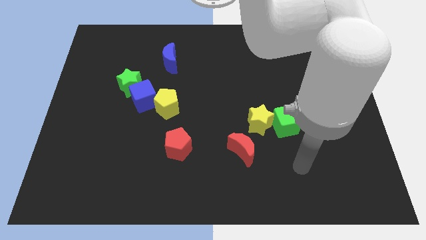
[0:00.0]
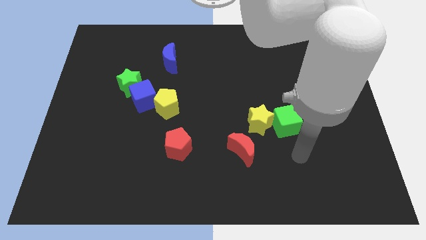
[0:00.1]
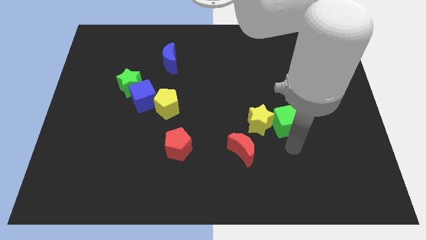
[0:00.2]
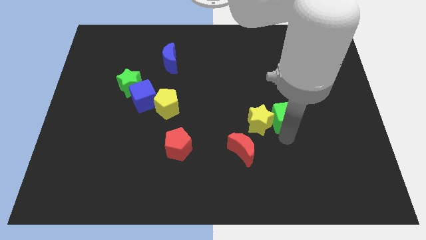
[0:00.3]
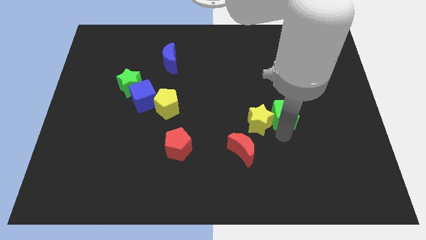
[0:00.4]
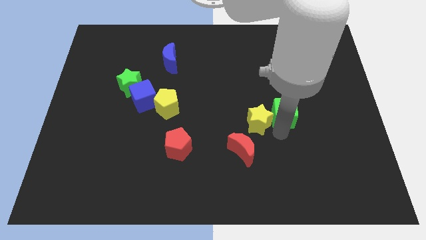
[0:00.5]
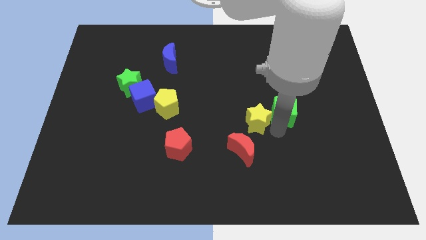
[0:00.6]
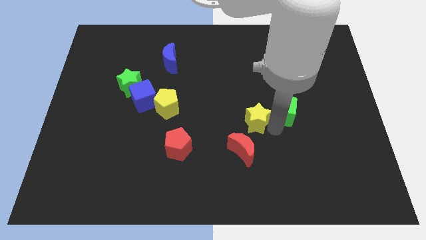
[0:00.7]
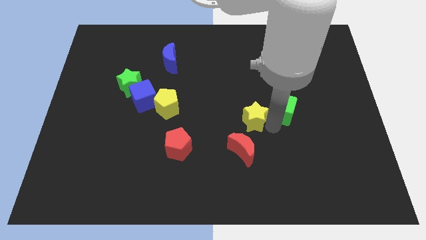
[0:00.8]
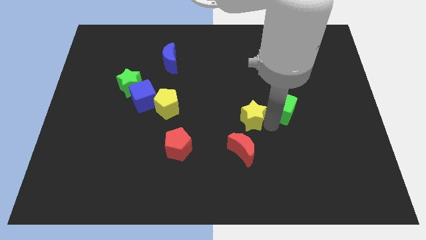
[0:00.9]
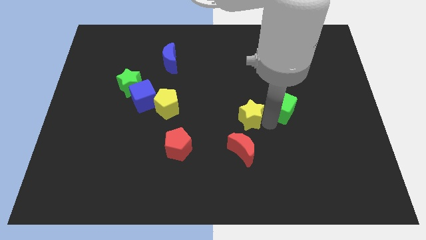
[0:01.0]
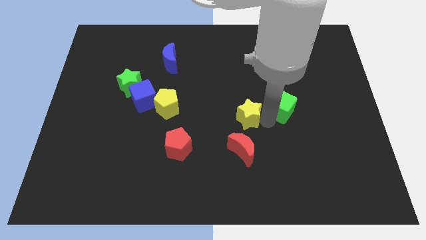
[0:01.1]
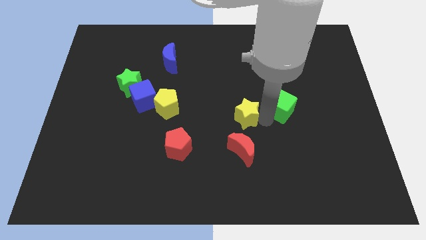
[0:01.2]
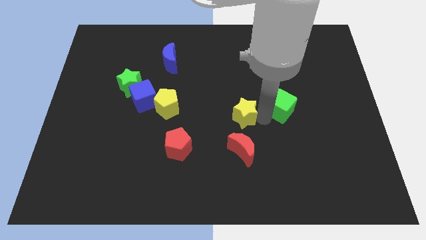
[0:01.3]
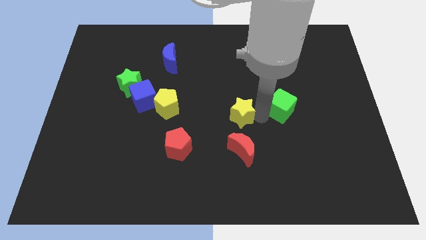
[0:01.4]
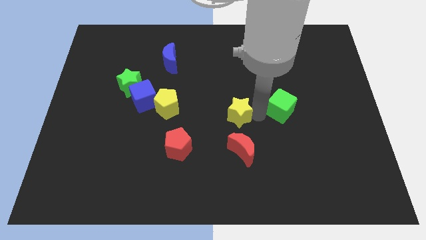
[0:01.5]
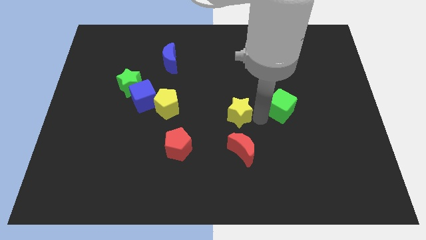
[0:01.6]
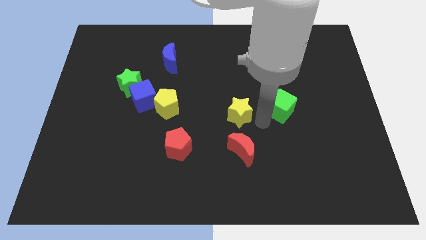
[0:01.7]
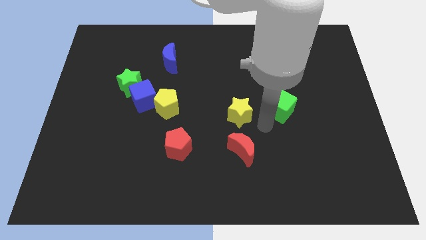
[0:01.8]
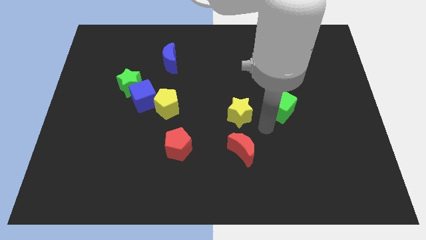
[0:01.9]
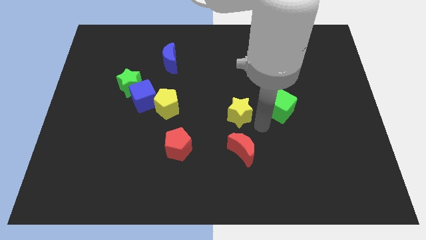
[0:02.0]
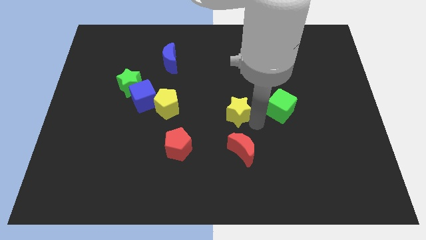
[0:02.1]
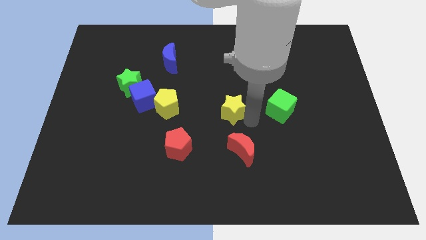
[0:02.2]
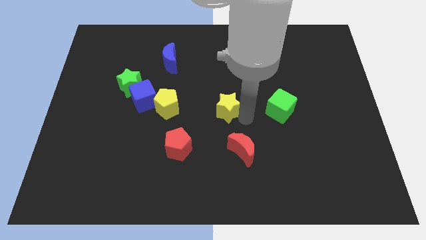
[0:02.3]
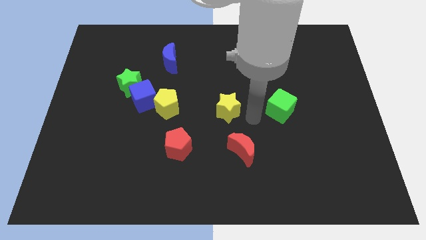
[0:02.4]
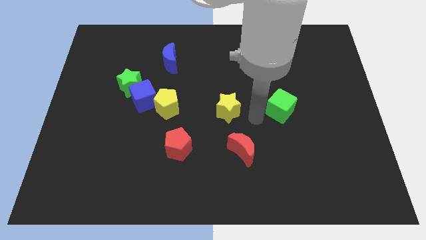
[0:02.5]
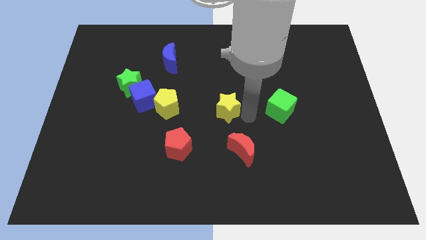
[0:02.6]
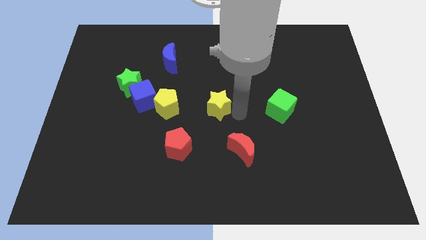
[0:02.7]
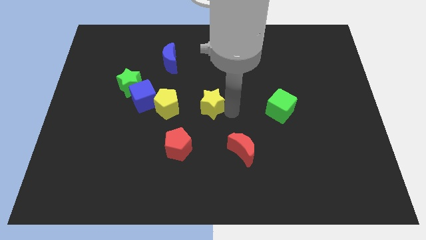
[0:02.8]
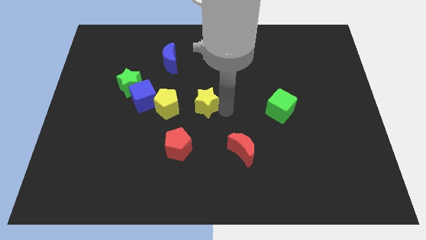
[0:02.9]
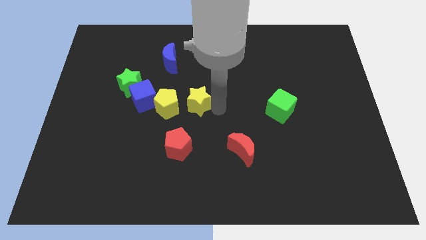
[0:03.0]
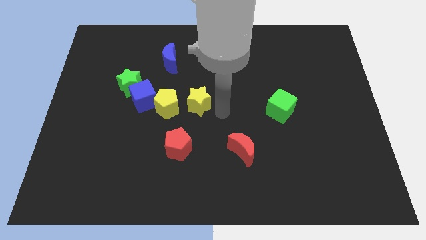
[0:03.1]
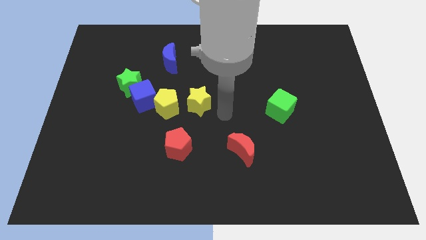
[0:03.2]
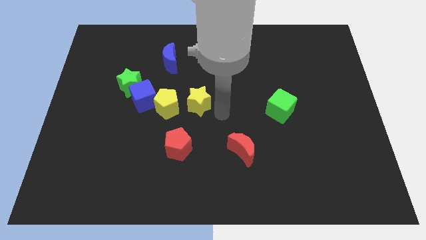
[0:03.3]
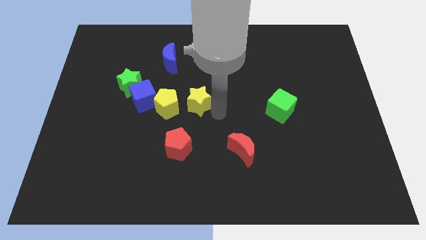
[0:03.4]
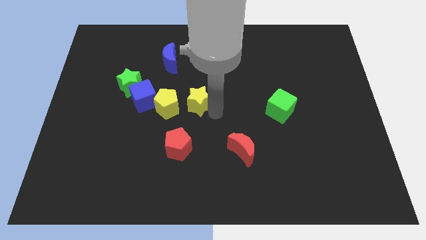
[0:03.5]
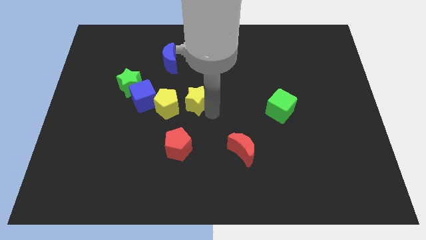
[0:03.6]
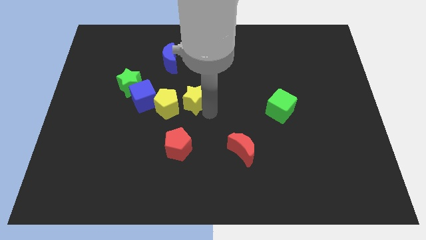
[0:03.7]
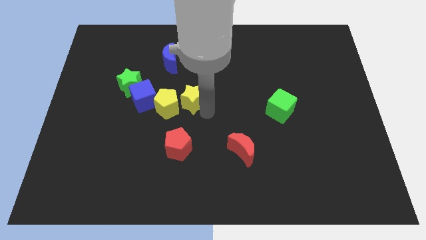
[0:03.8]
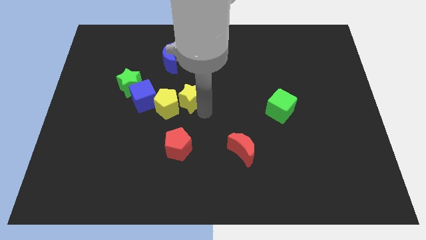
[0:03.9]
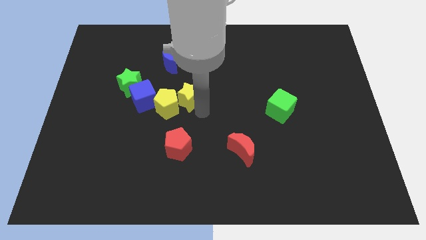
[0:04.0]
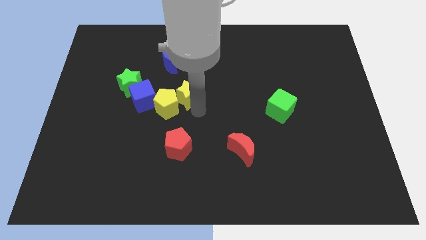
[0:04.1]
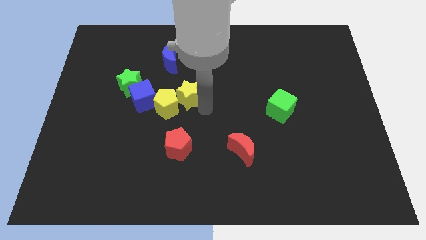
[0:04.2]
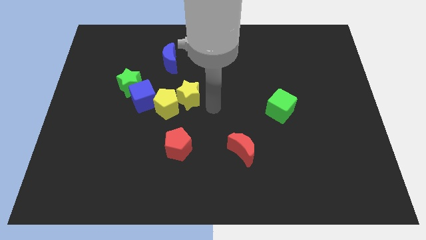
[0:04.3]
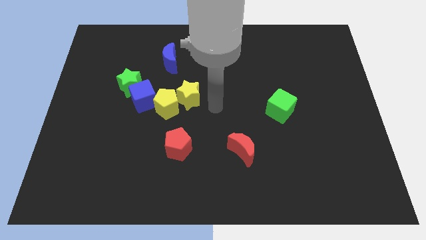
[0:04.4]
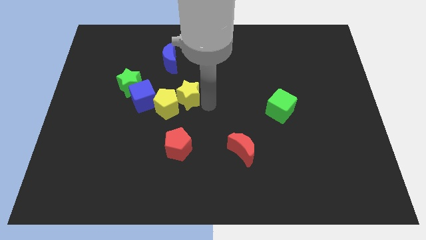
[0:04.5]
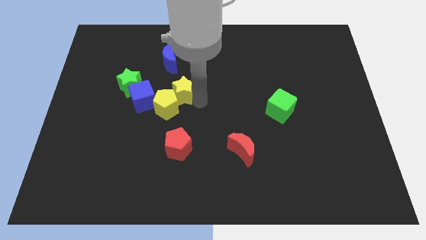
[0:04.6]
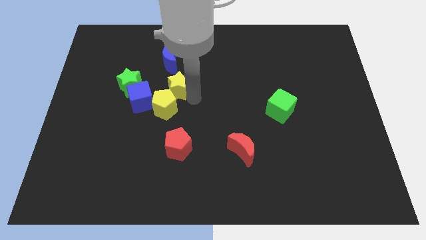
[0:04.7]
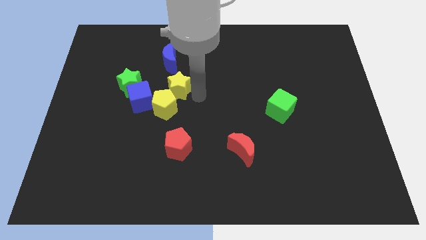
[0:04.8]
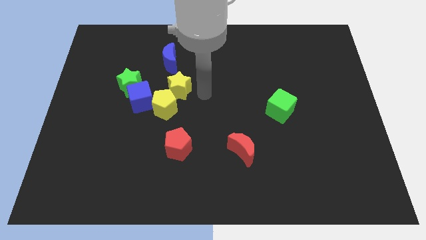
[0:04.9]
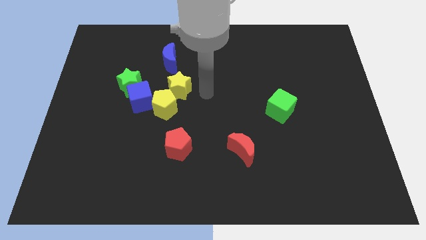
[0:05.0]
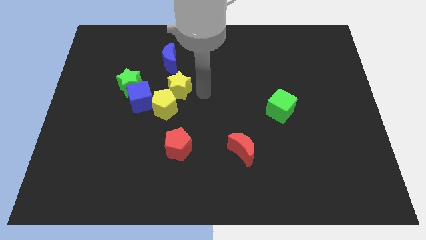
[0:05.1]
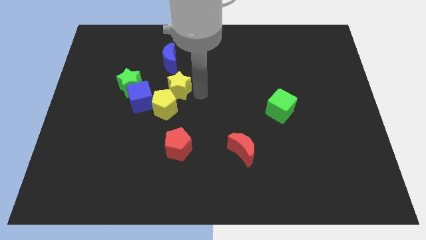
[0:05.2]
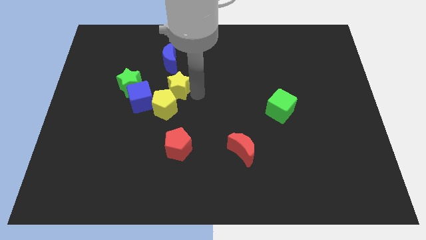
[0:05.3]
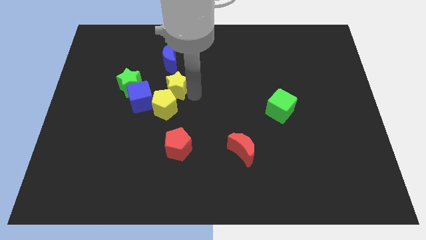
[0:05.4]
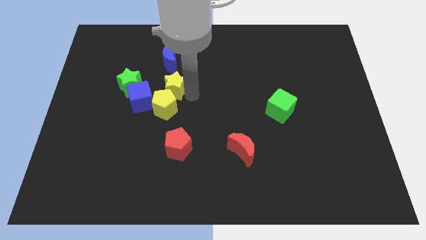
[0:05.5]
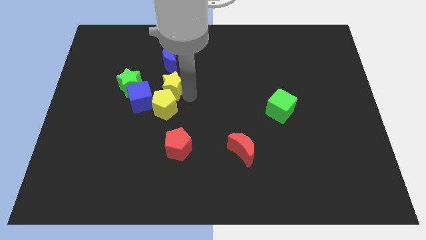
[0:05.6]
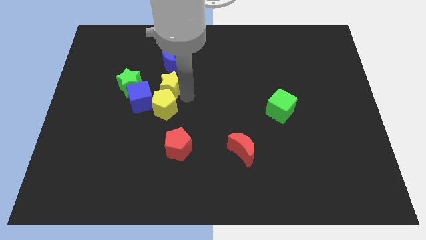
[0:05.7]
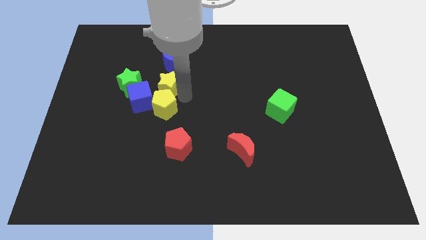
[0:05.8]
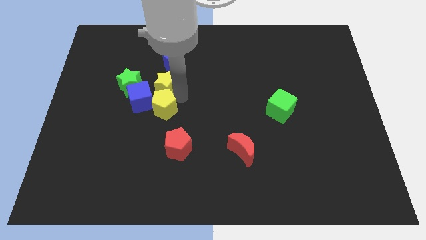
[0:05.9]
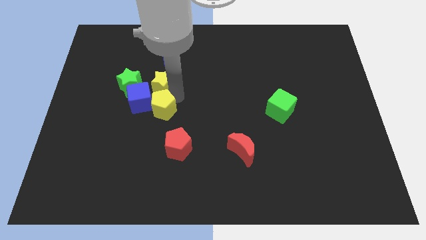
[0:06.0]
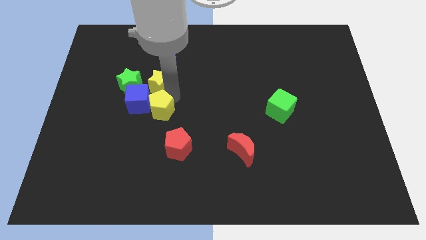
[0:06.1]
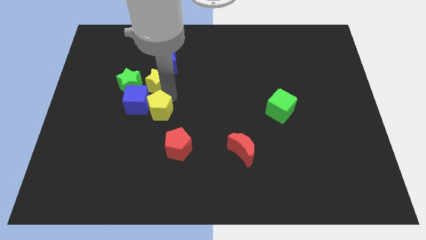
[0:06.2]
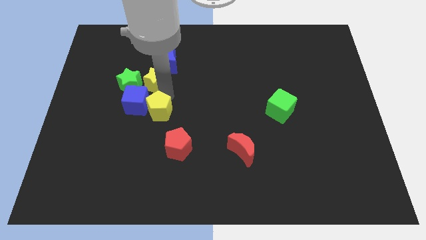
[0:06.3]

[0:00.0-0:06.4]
push the yellow star close to the green star

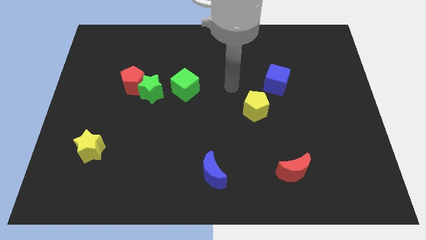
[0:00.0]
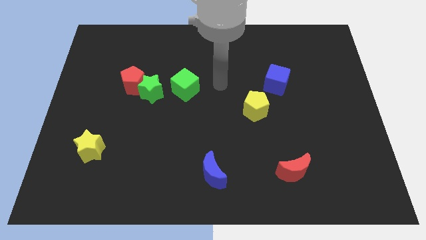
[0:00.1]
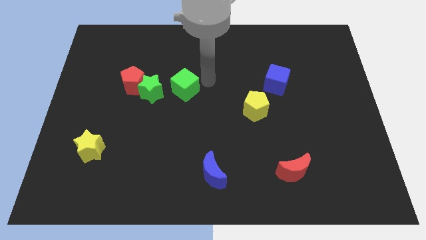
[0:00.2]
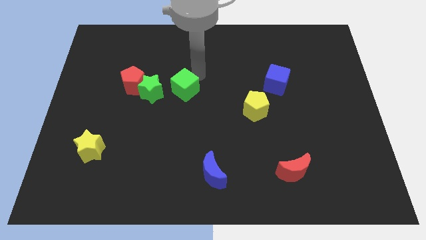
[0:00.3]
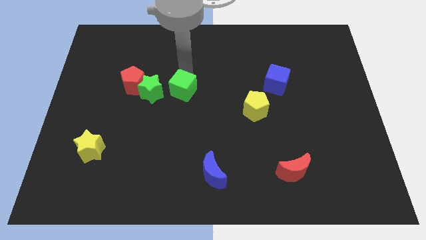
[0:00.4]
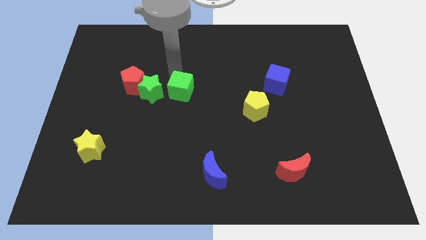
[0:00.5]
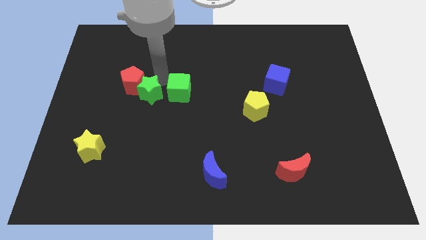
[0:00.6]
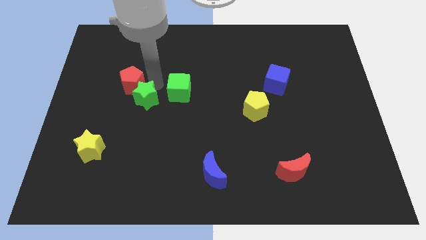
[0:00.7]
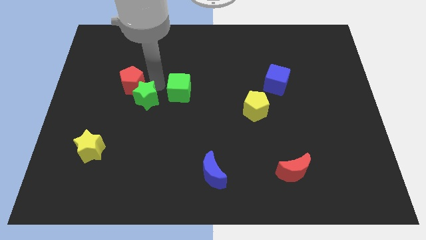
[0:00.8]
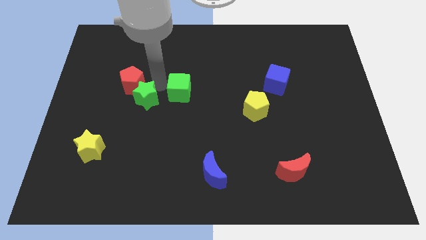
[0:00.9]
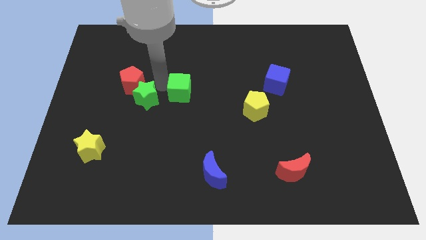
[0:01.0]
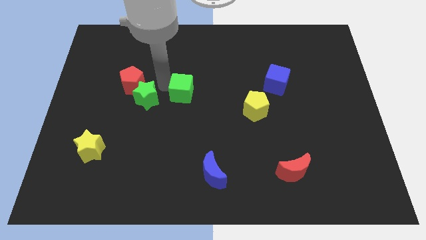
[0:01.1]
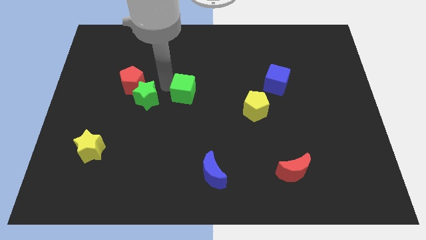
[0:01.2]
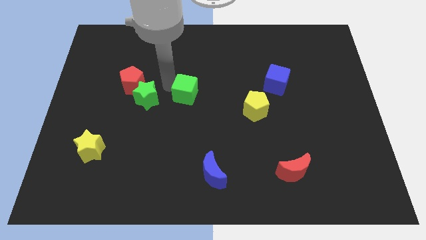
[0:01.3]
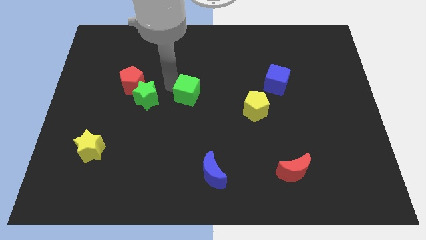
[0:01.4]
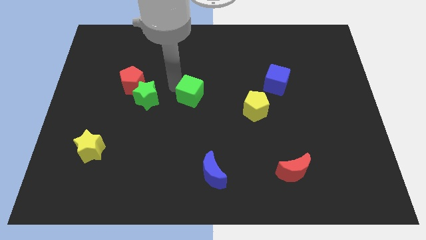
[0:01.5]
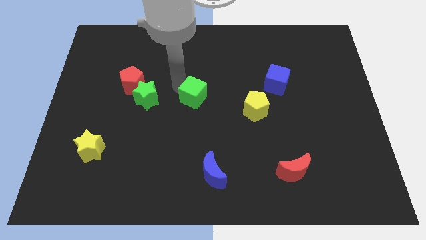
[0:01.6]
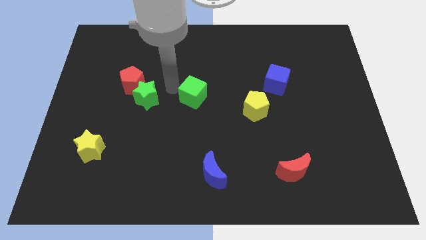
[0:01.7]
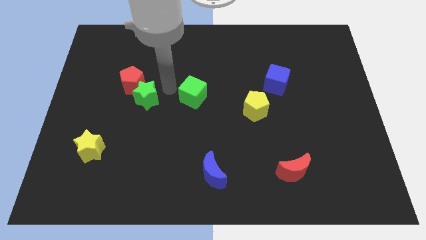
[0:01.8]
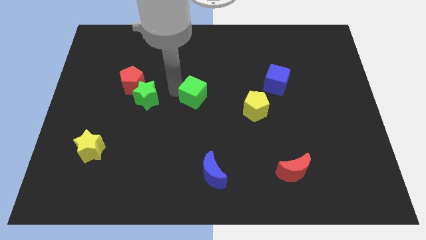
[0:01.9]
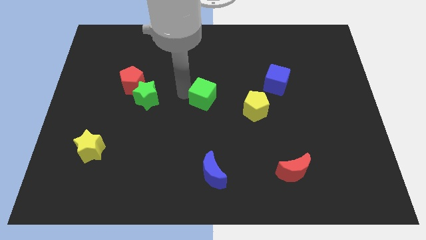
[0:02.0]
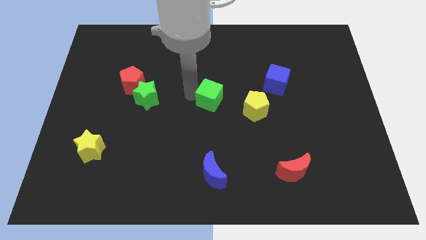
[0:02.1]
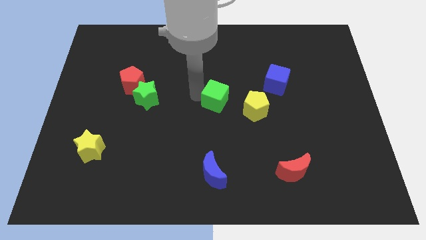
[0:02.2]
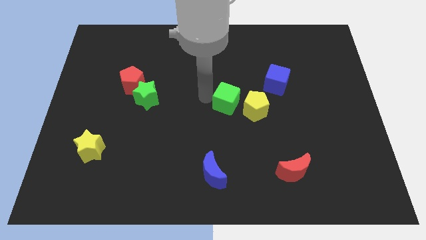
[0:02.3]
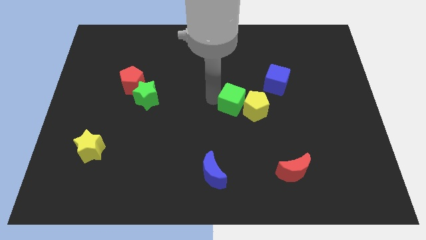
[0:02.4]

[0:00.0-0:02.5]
push the green cube towards the yellow pentagon
